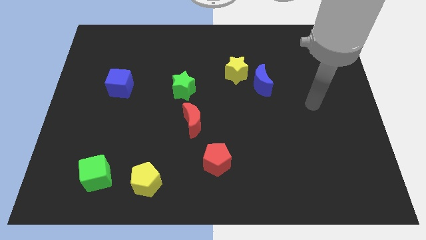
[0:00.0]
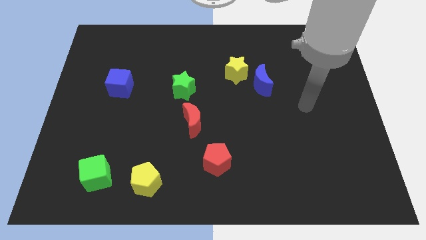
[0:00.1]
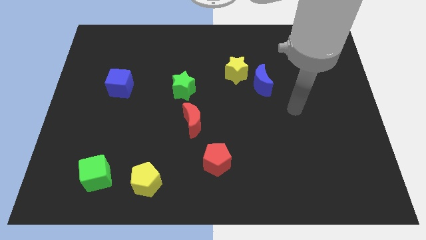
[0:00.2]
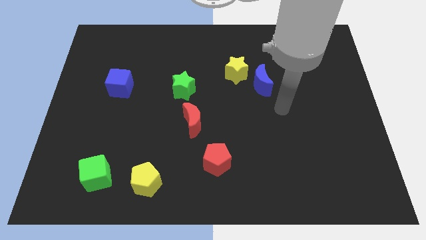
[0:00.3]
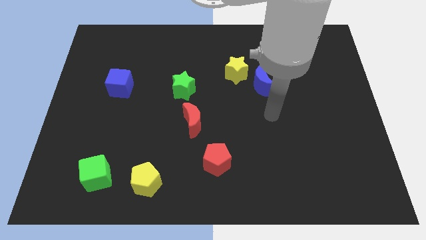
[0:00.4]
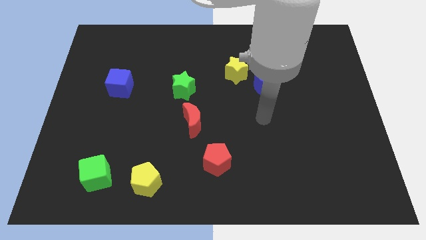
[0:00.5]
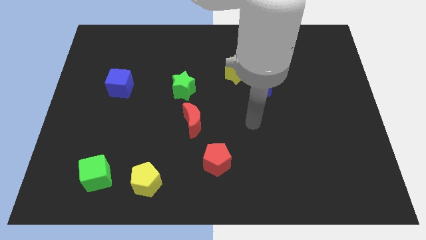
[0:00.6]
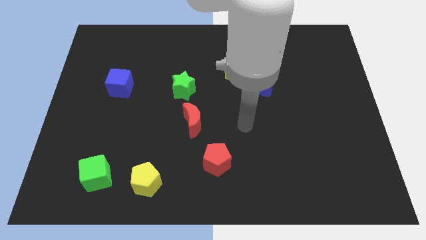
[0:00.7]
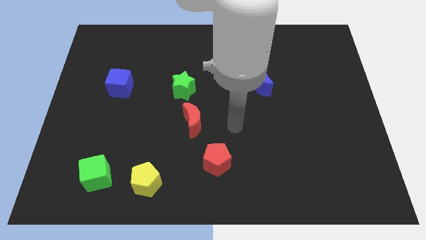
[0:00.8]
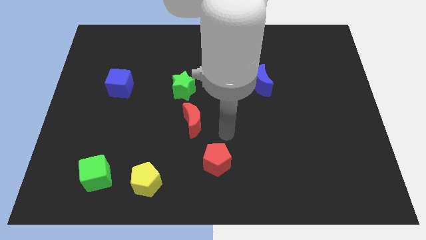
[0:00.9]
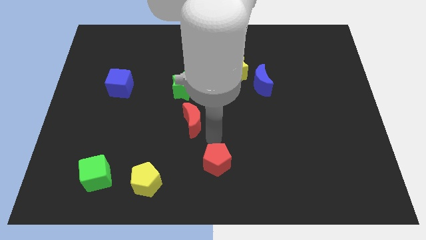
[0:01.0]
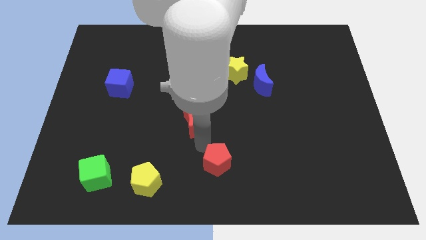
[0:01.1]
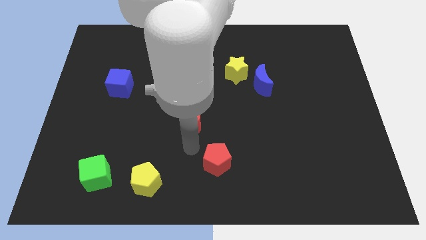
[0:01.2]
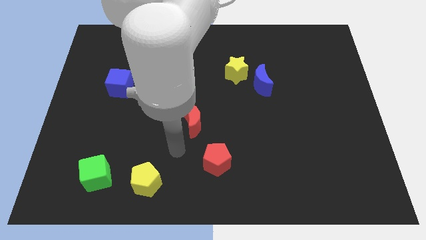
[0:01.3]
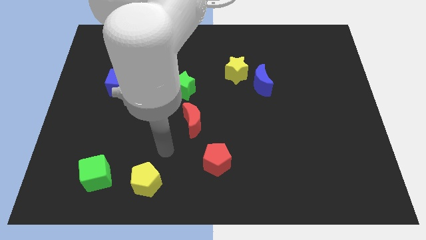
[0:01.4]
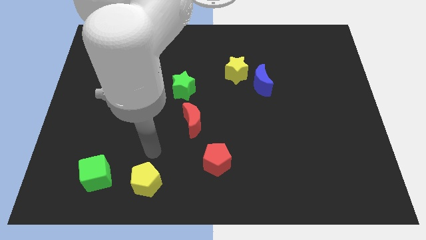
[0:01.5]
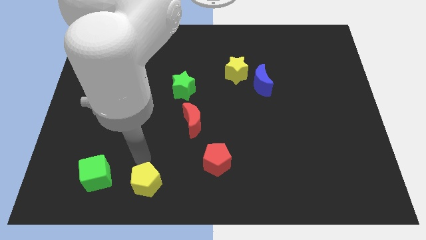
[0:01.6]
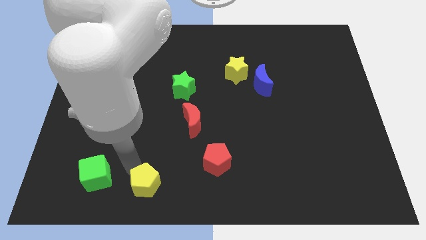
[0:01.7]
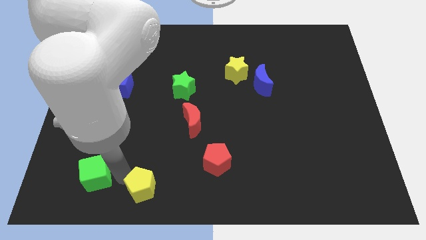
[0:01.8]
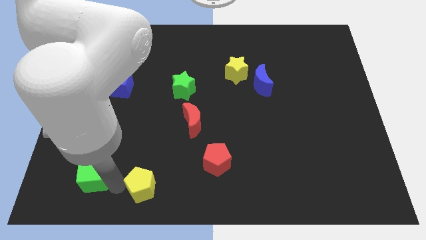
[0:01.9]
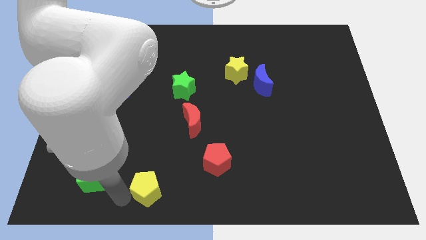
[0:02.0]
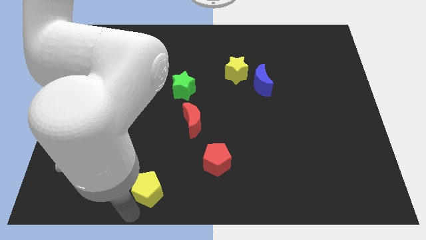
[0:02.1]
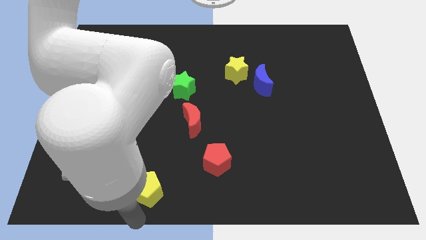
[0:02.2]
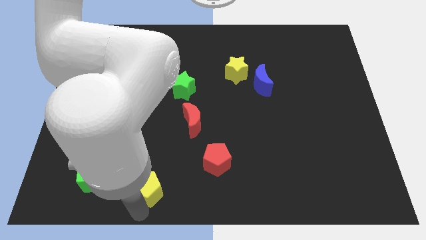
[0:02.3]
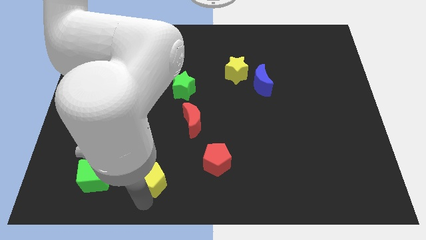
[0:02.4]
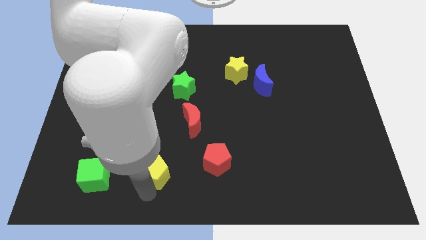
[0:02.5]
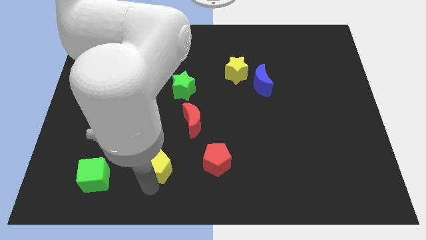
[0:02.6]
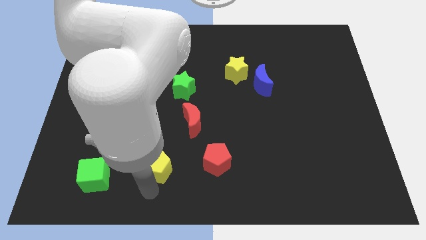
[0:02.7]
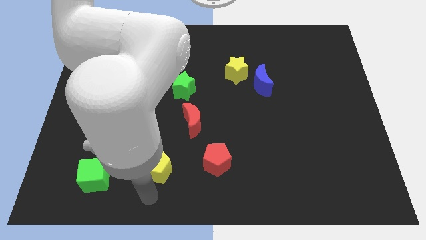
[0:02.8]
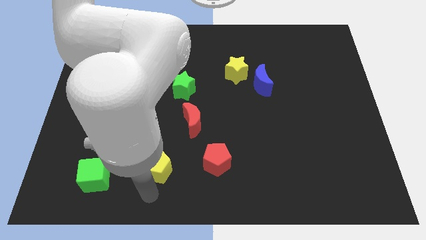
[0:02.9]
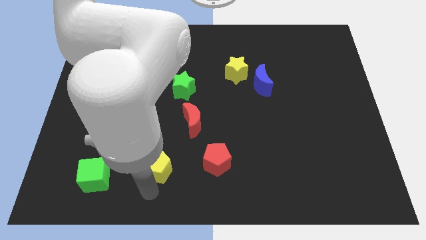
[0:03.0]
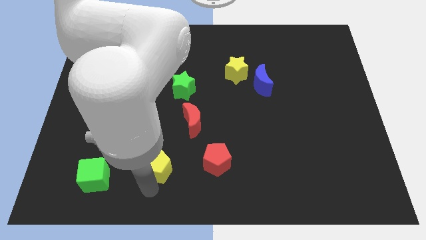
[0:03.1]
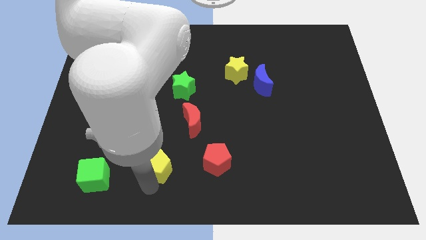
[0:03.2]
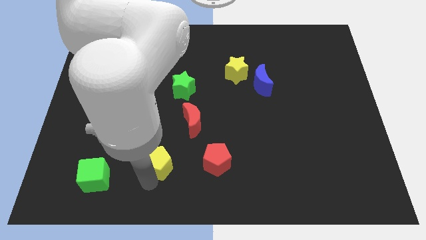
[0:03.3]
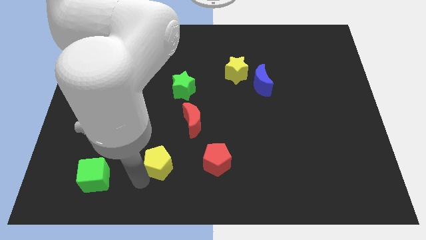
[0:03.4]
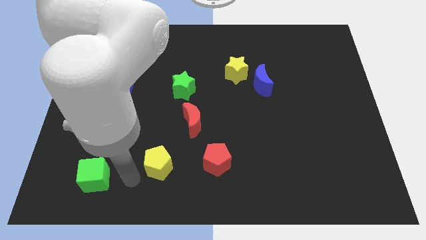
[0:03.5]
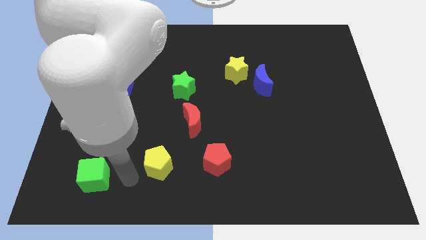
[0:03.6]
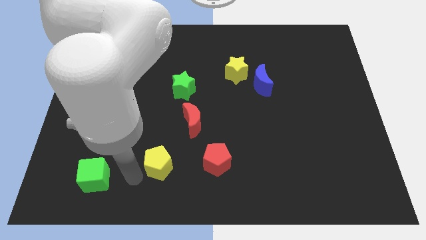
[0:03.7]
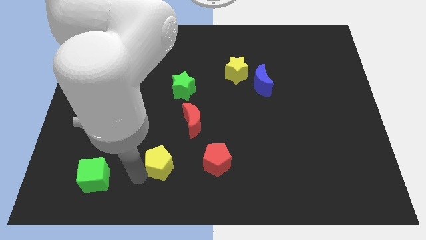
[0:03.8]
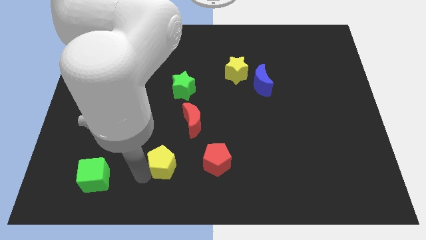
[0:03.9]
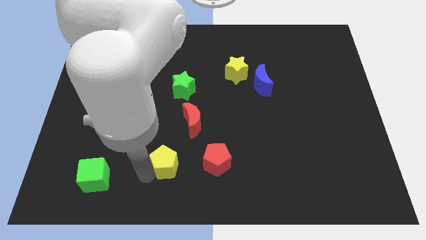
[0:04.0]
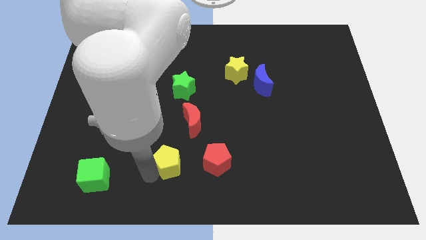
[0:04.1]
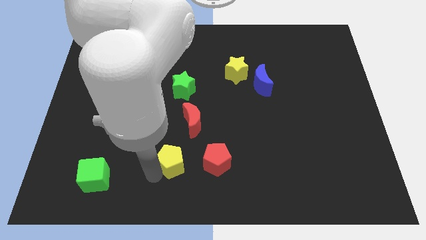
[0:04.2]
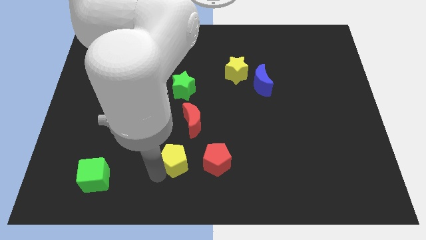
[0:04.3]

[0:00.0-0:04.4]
slightly move the yellow pentagon diagonally upwards and right

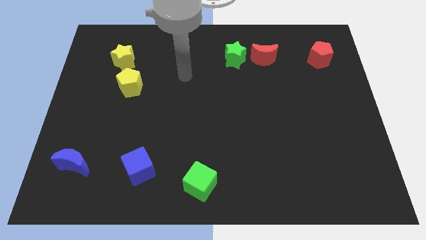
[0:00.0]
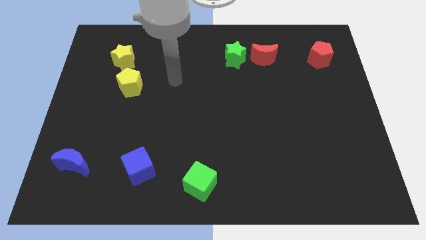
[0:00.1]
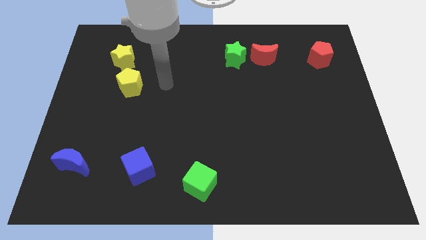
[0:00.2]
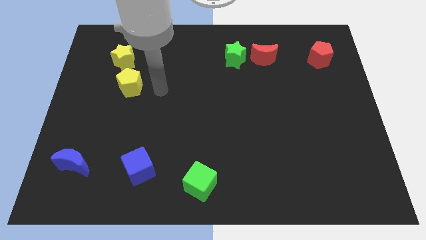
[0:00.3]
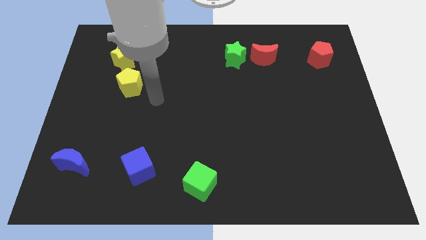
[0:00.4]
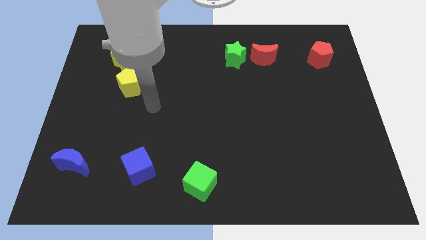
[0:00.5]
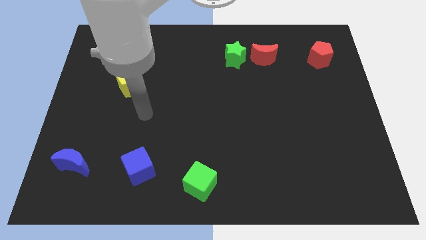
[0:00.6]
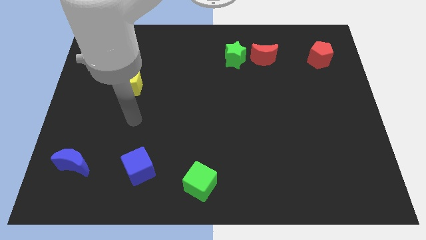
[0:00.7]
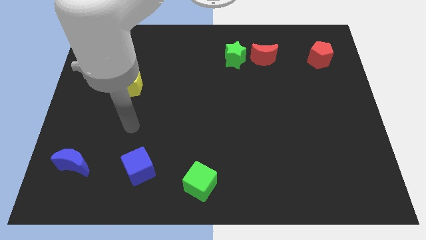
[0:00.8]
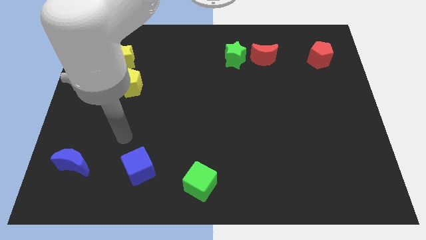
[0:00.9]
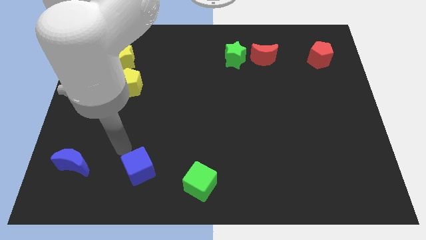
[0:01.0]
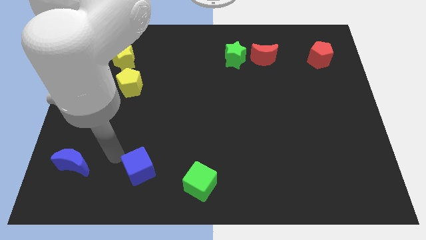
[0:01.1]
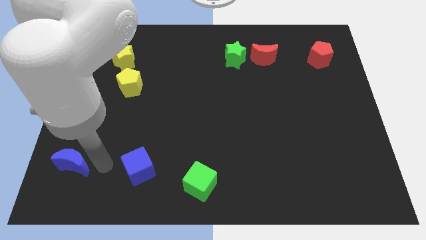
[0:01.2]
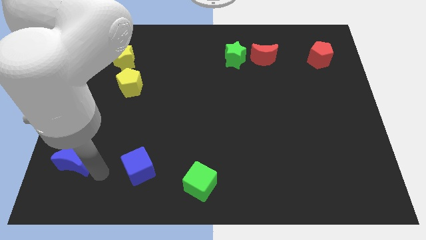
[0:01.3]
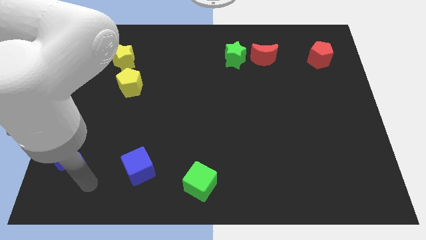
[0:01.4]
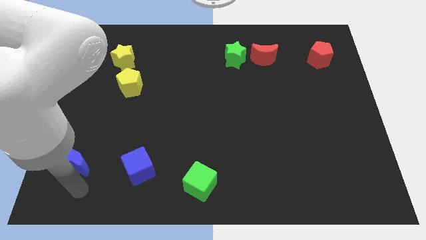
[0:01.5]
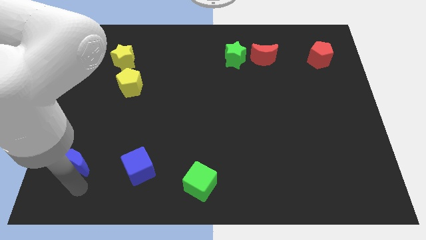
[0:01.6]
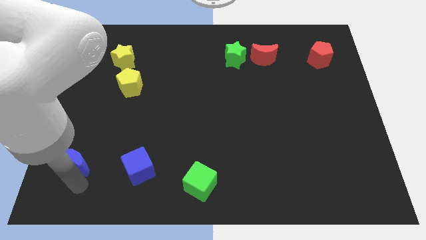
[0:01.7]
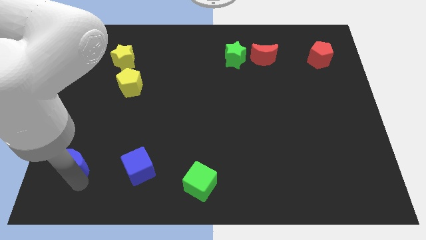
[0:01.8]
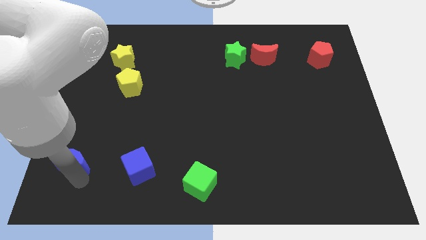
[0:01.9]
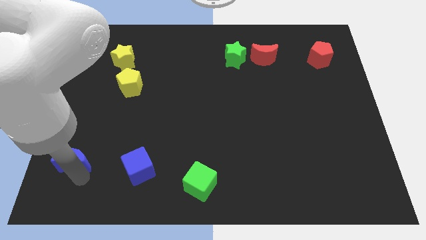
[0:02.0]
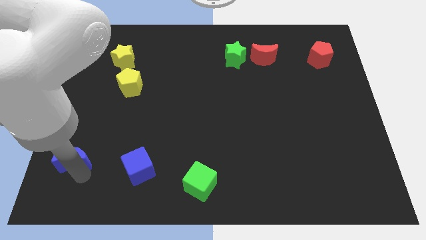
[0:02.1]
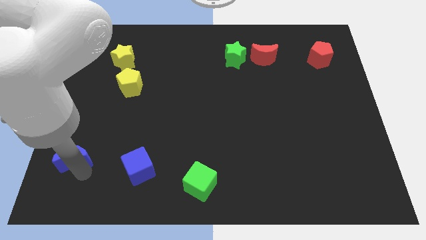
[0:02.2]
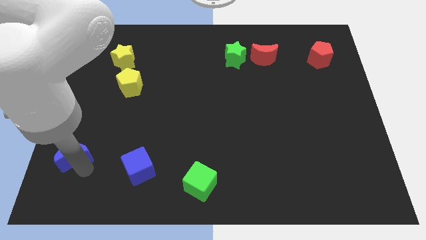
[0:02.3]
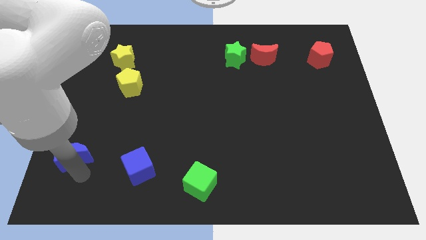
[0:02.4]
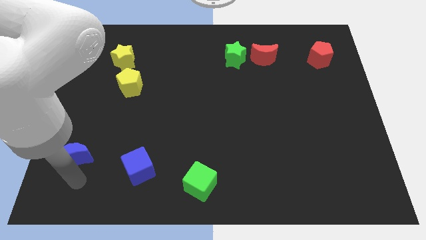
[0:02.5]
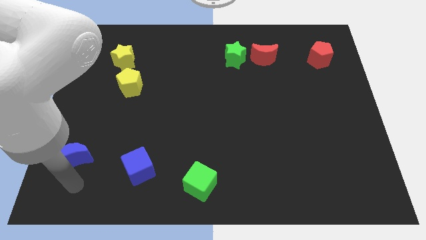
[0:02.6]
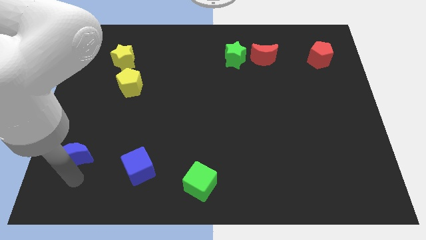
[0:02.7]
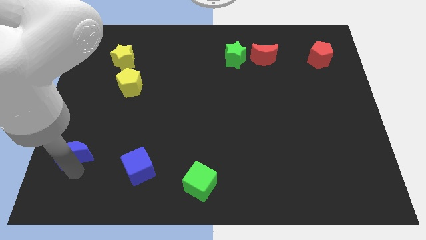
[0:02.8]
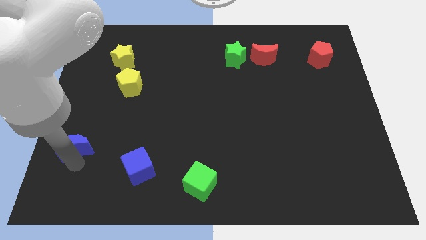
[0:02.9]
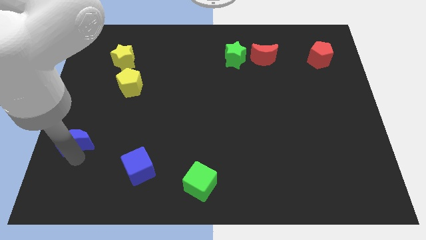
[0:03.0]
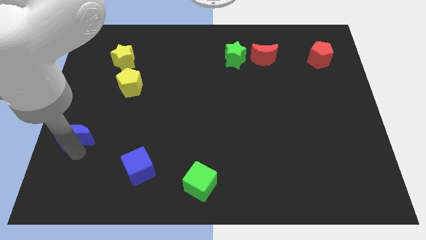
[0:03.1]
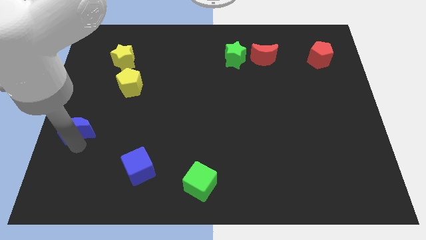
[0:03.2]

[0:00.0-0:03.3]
slide the blue moon upwards a little bit

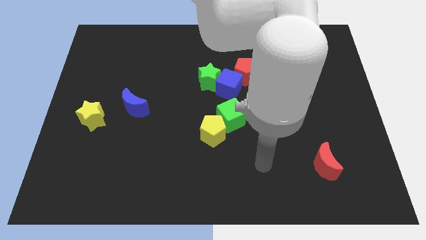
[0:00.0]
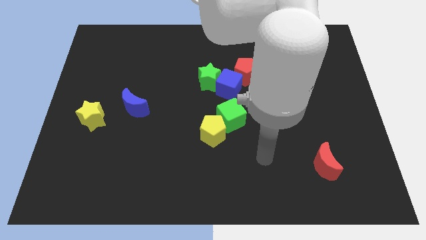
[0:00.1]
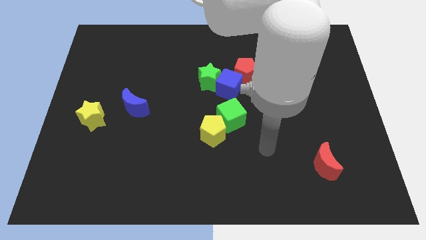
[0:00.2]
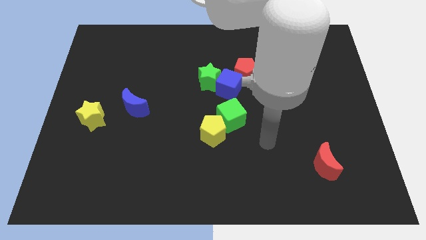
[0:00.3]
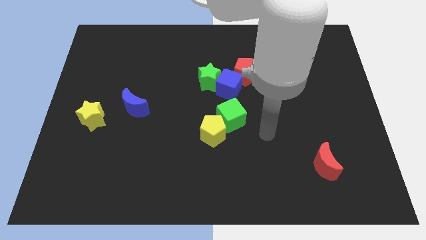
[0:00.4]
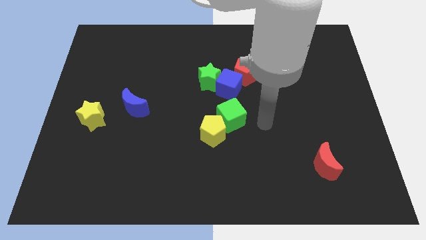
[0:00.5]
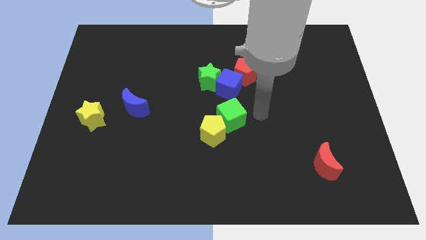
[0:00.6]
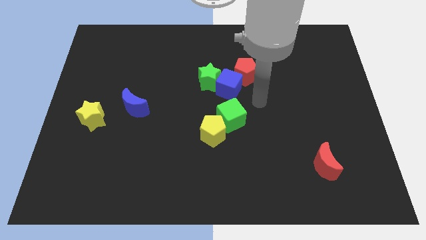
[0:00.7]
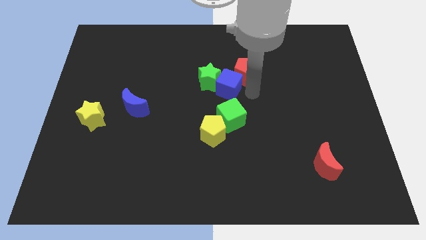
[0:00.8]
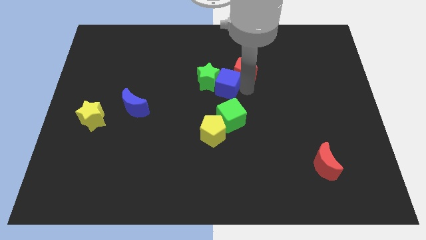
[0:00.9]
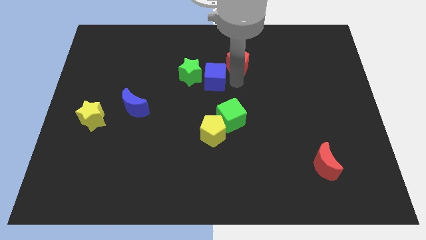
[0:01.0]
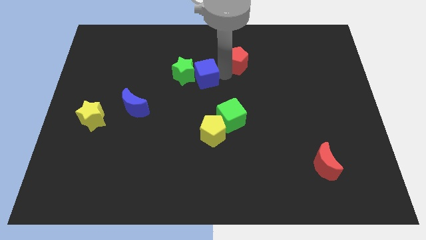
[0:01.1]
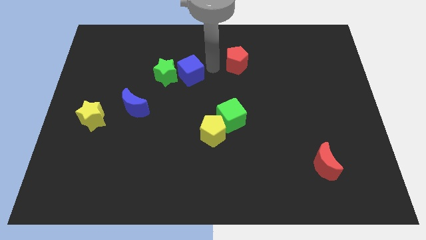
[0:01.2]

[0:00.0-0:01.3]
move the green star left somewhat
